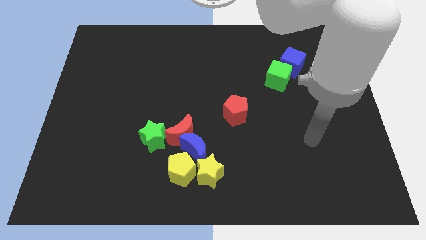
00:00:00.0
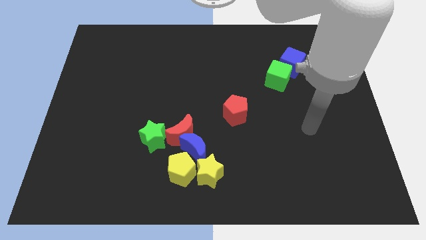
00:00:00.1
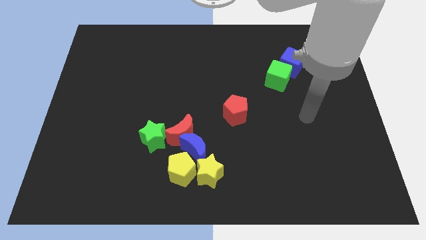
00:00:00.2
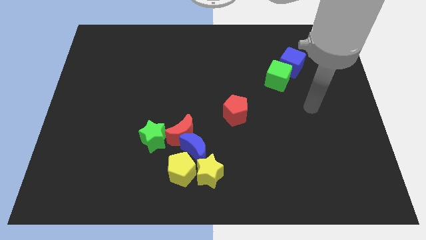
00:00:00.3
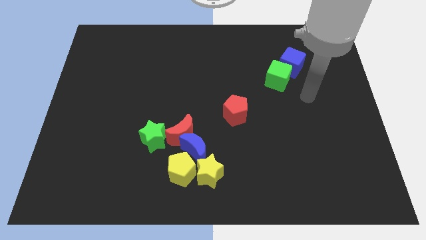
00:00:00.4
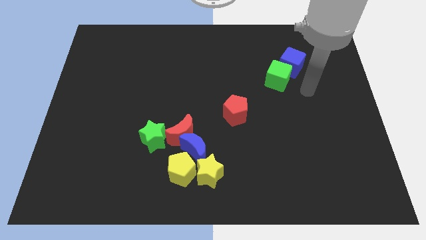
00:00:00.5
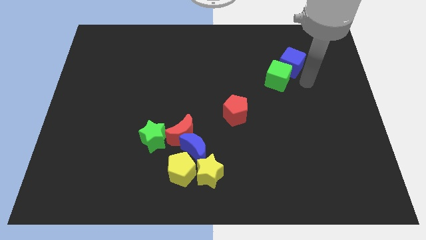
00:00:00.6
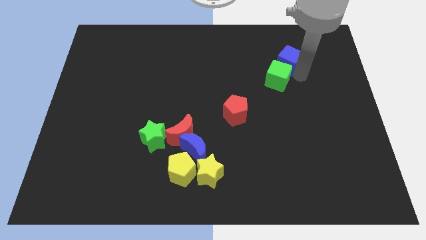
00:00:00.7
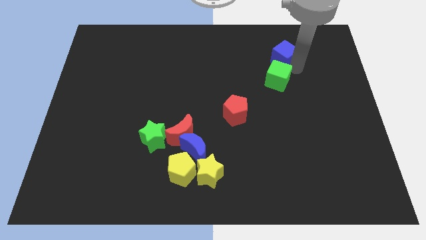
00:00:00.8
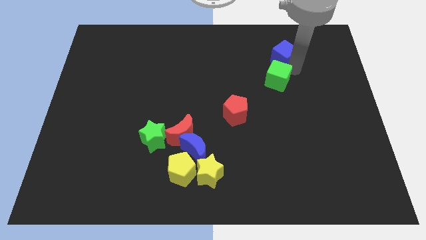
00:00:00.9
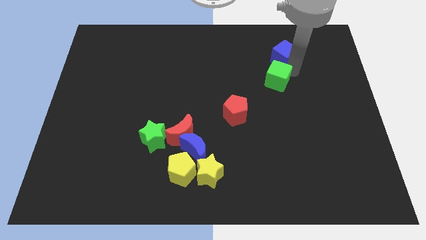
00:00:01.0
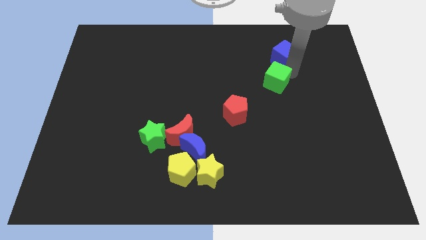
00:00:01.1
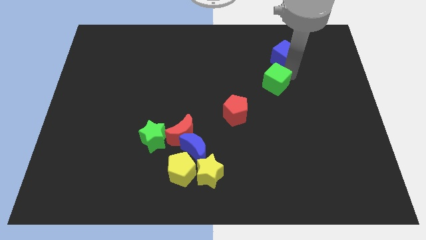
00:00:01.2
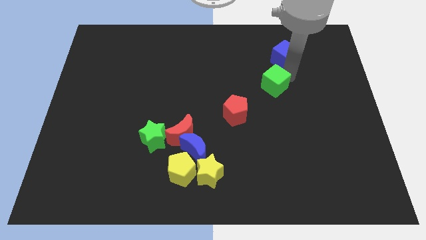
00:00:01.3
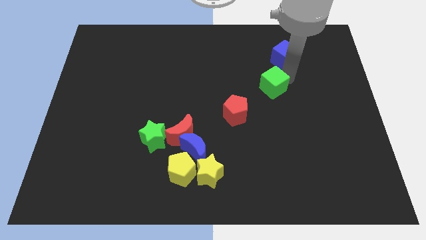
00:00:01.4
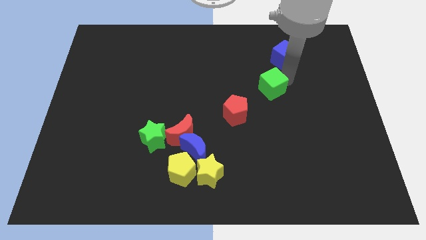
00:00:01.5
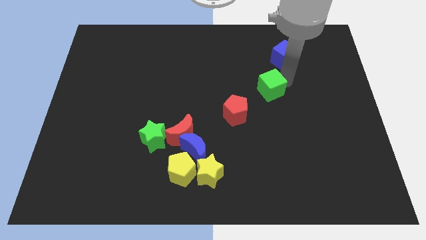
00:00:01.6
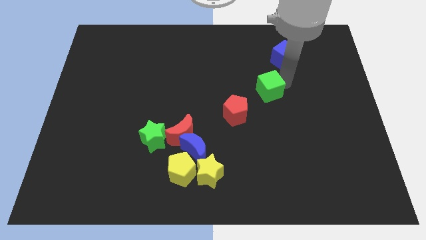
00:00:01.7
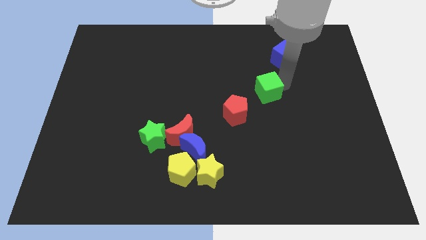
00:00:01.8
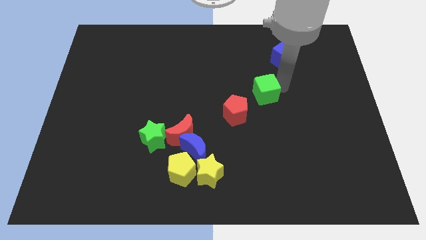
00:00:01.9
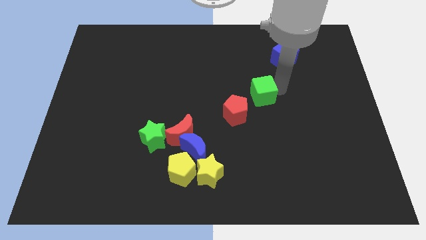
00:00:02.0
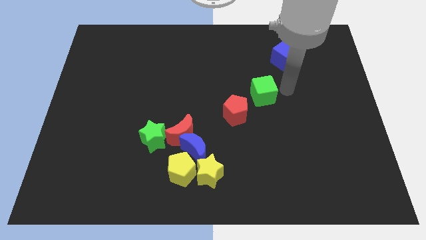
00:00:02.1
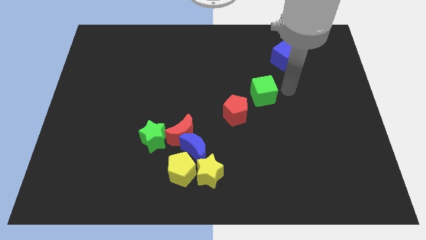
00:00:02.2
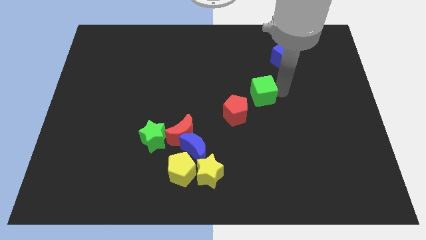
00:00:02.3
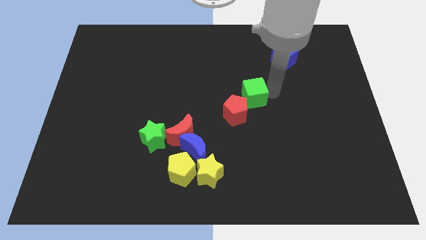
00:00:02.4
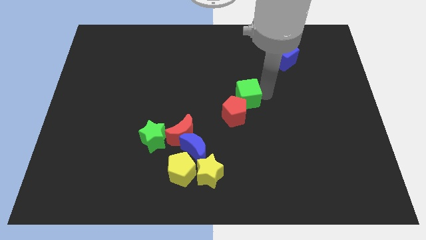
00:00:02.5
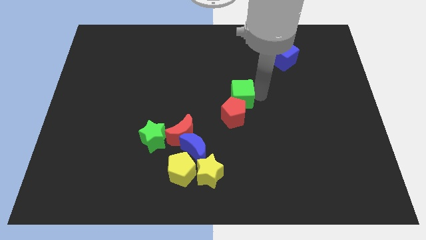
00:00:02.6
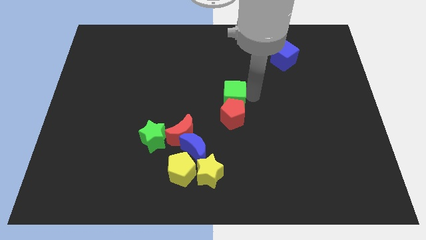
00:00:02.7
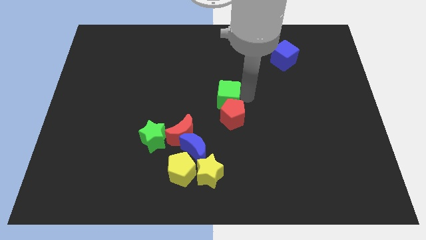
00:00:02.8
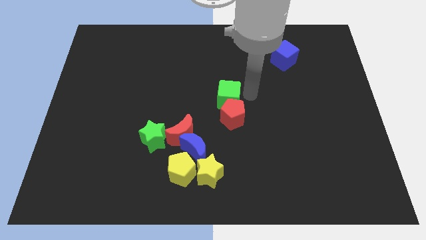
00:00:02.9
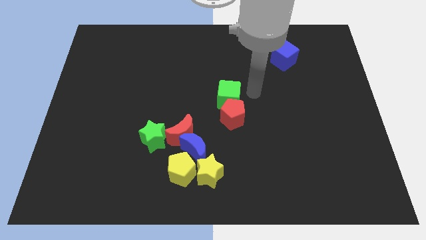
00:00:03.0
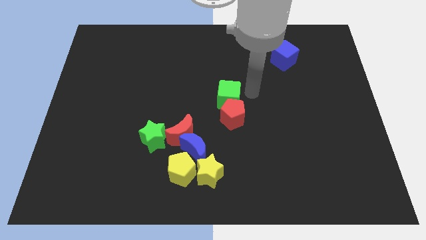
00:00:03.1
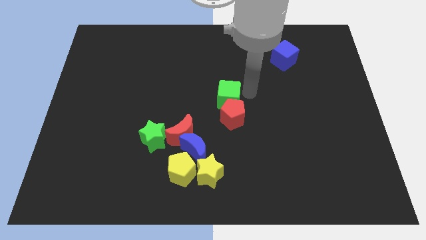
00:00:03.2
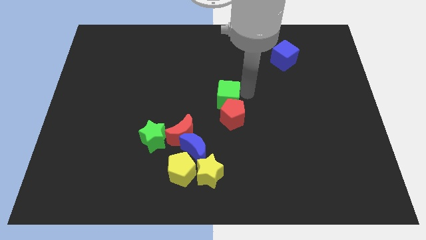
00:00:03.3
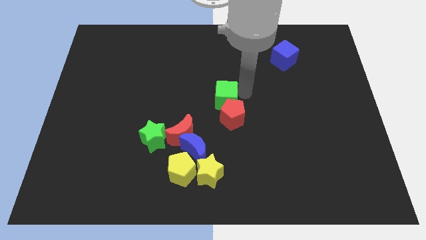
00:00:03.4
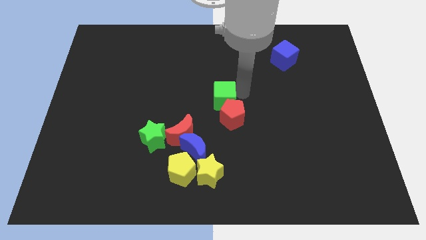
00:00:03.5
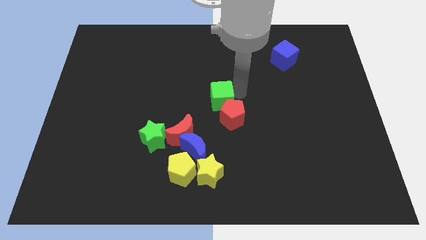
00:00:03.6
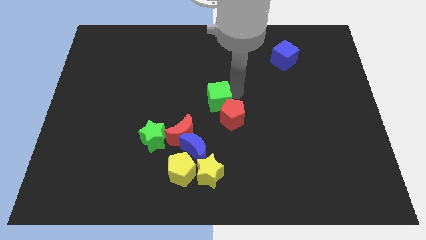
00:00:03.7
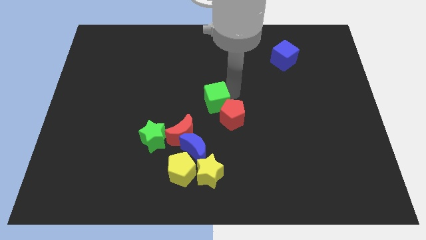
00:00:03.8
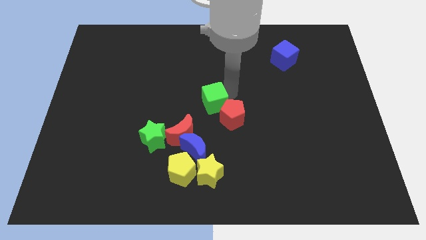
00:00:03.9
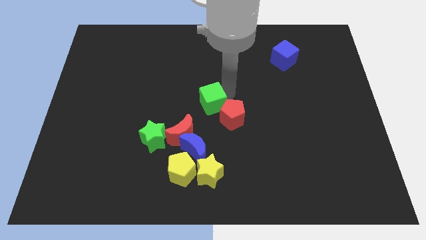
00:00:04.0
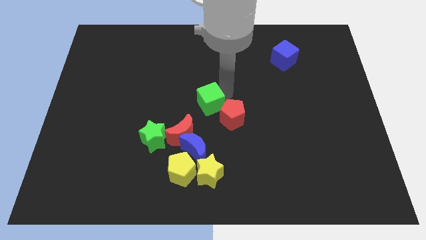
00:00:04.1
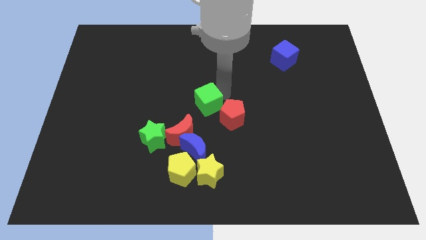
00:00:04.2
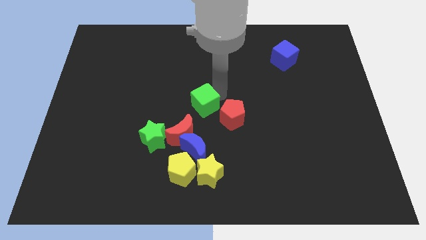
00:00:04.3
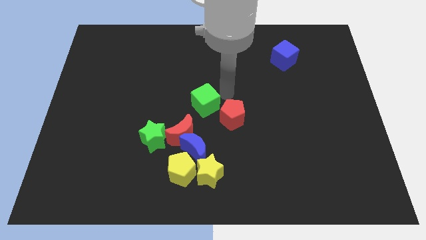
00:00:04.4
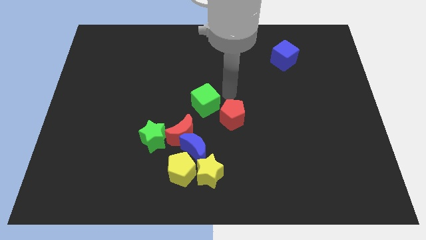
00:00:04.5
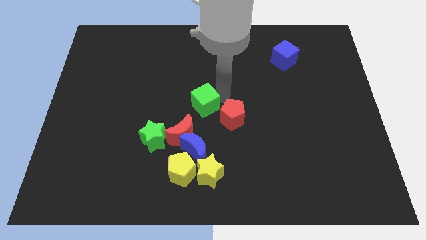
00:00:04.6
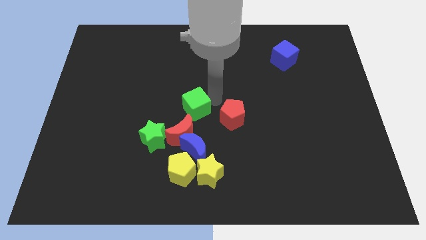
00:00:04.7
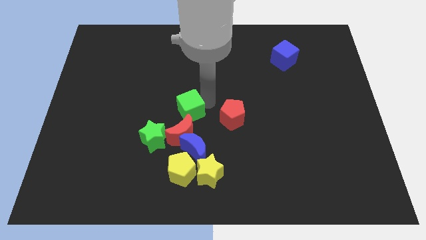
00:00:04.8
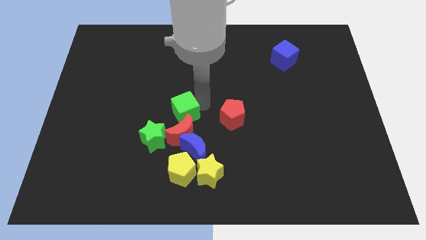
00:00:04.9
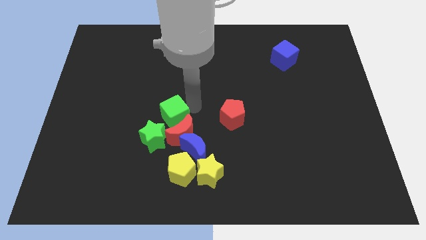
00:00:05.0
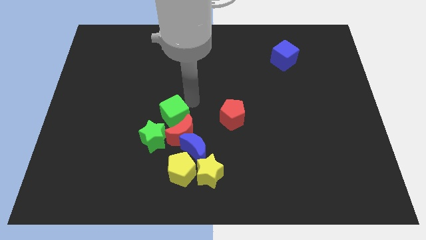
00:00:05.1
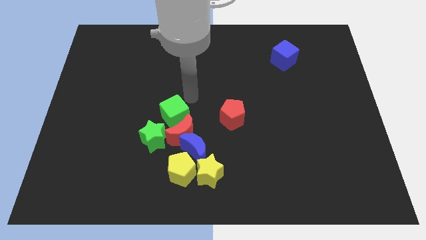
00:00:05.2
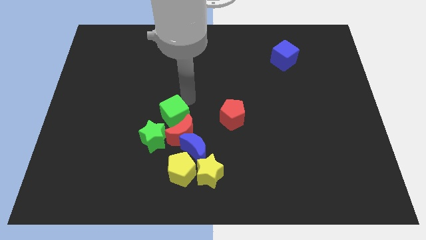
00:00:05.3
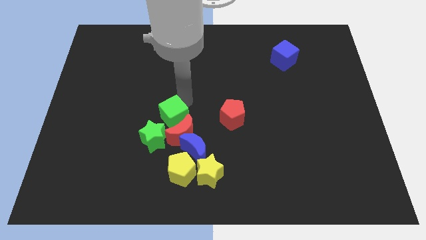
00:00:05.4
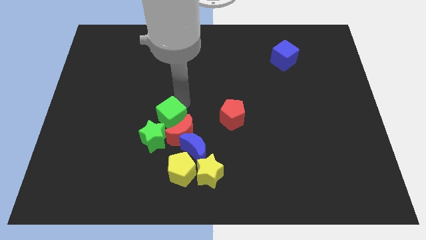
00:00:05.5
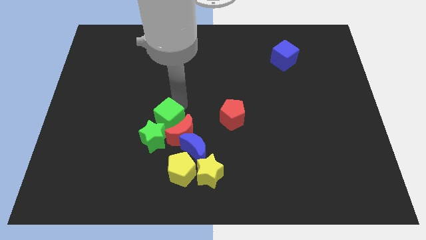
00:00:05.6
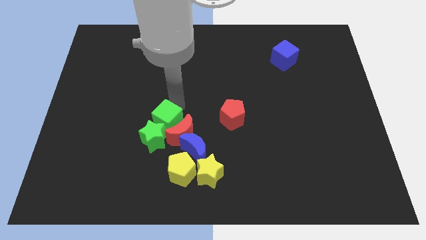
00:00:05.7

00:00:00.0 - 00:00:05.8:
push the green cube towards the green star

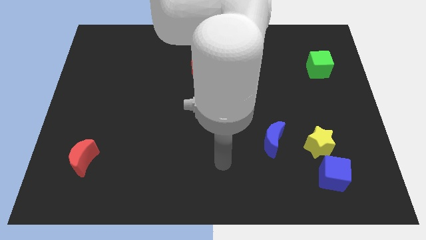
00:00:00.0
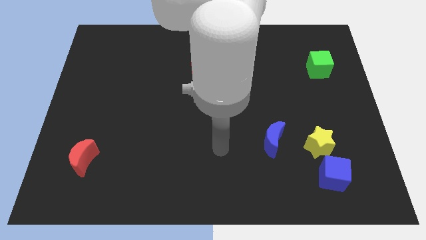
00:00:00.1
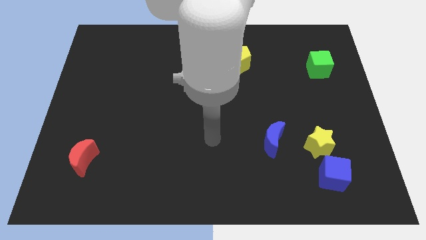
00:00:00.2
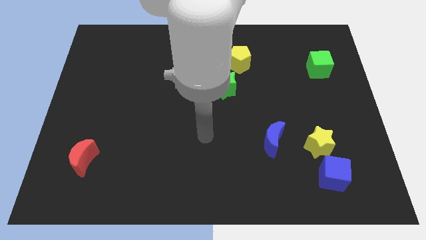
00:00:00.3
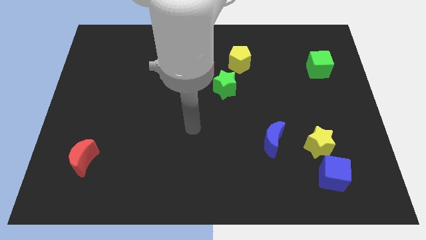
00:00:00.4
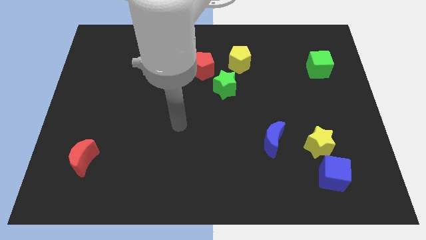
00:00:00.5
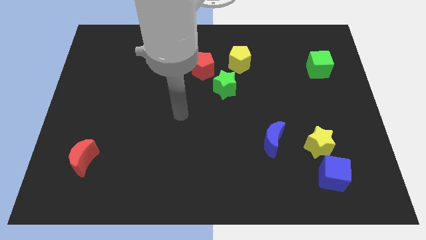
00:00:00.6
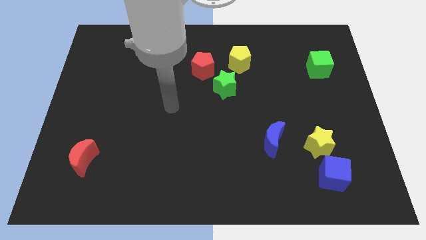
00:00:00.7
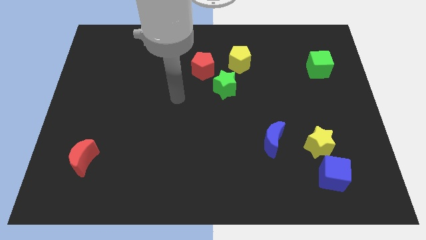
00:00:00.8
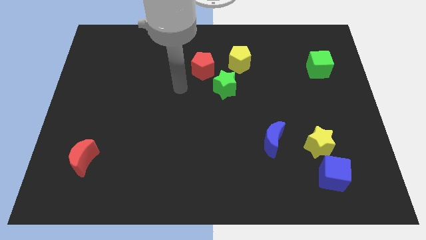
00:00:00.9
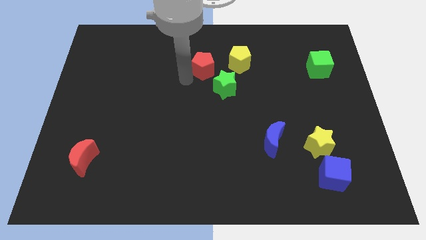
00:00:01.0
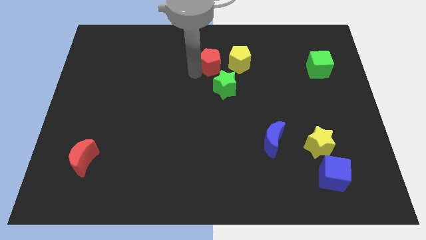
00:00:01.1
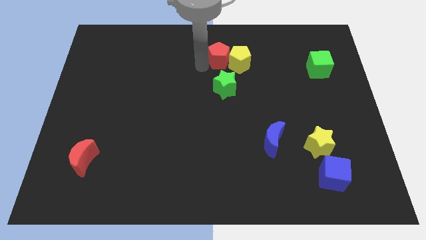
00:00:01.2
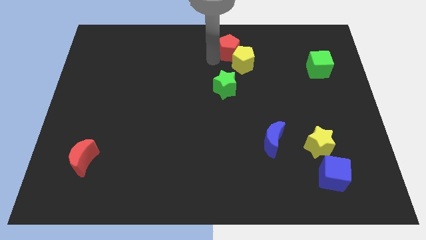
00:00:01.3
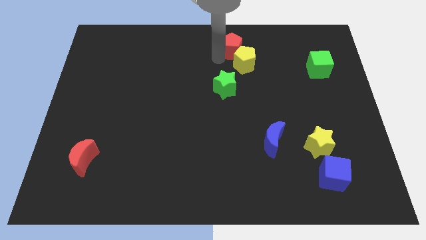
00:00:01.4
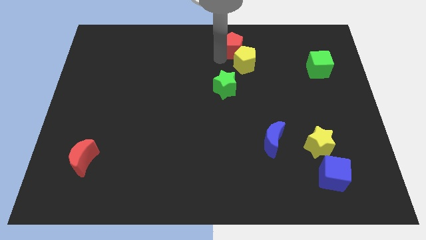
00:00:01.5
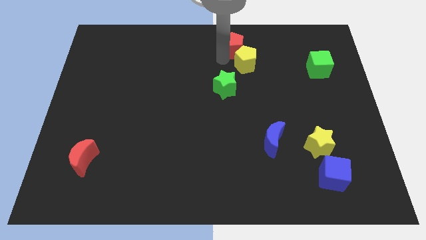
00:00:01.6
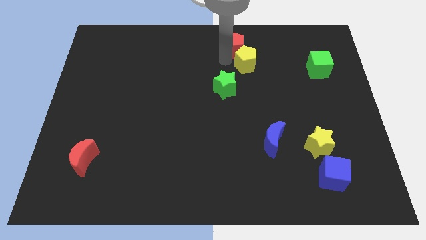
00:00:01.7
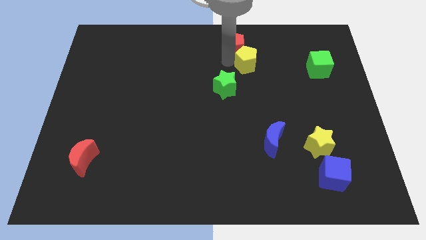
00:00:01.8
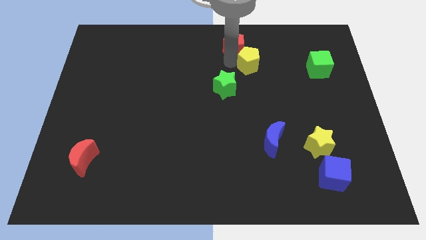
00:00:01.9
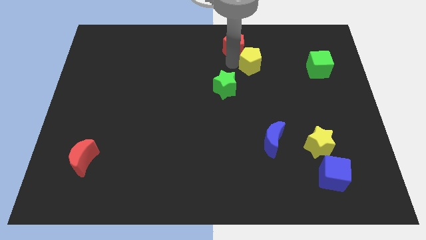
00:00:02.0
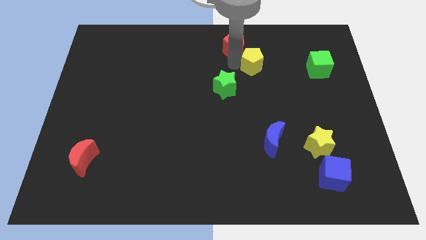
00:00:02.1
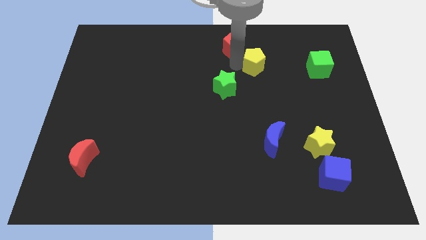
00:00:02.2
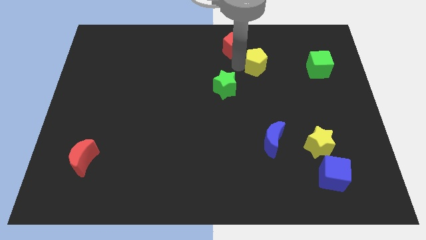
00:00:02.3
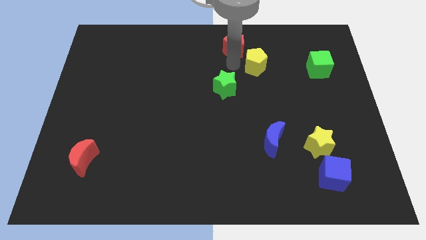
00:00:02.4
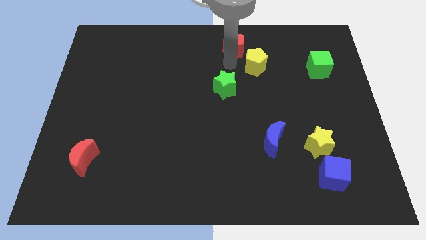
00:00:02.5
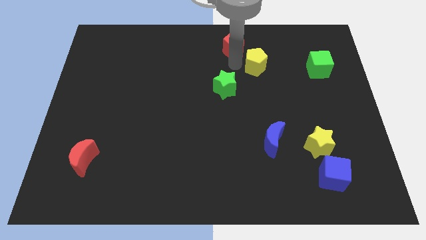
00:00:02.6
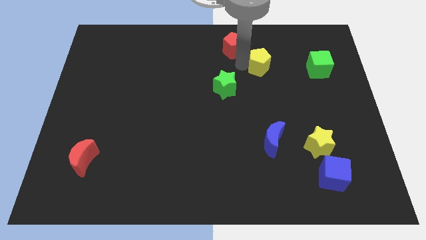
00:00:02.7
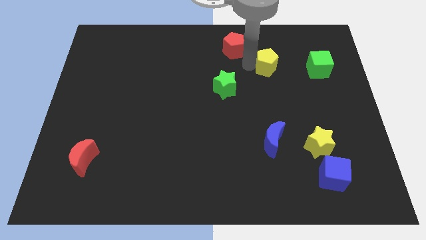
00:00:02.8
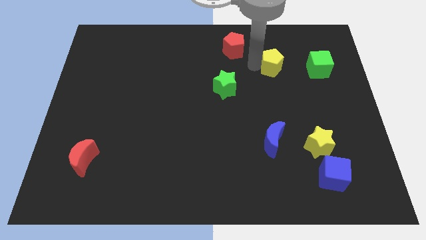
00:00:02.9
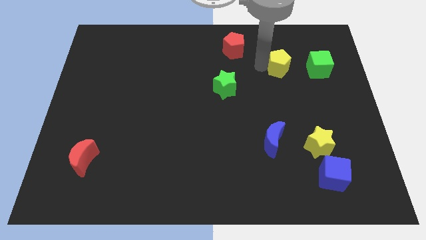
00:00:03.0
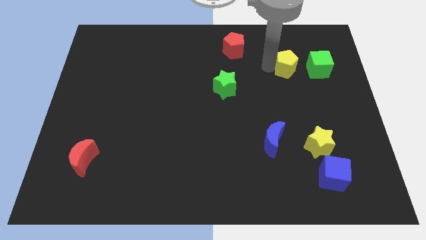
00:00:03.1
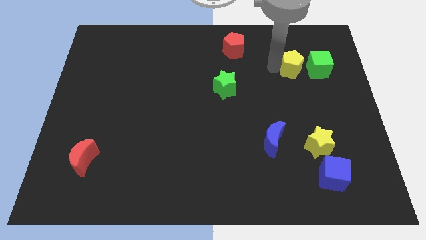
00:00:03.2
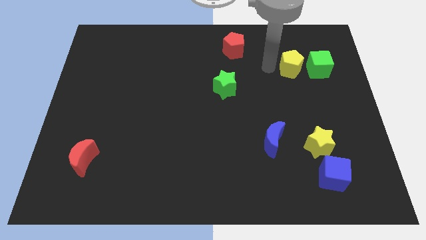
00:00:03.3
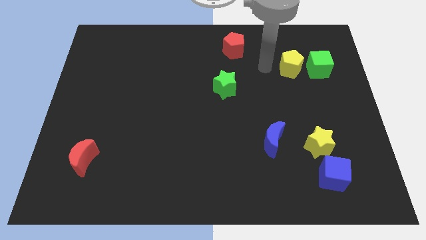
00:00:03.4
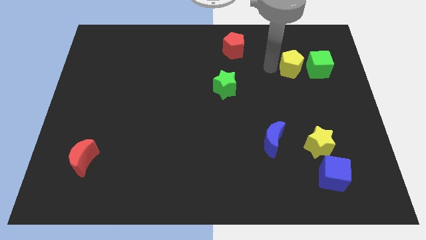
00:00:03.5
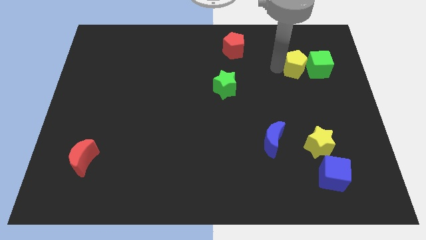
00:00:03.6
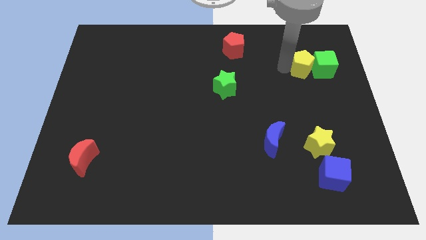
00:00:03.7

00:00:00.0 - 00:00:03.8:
push the yellow pentagon close to the green cube
